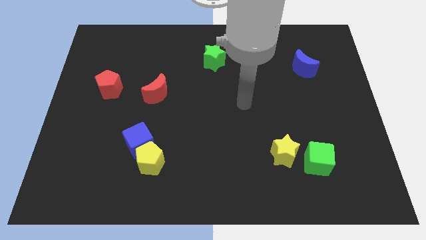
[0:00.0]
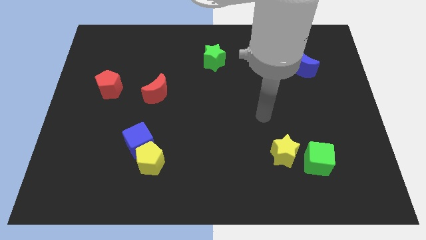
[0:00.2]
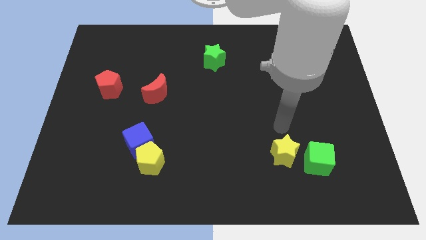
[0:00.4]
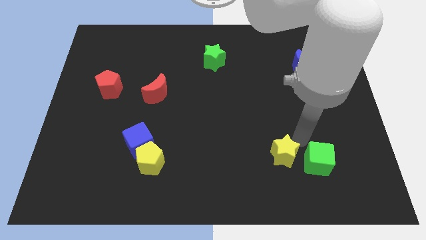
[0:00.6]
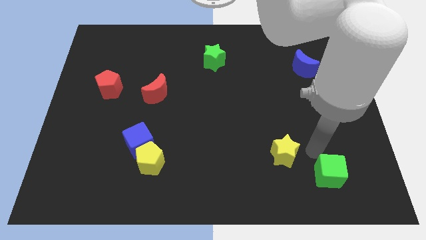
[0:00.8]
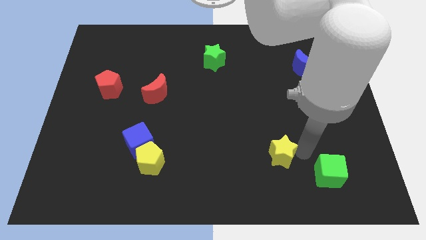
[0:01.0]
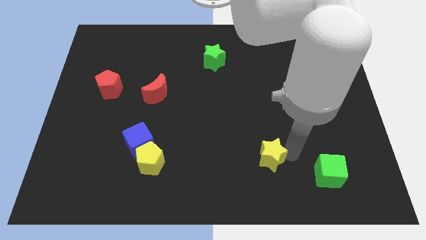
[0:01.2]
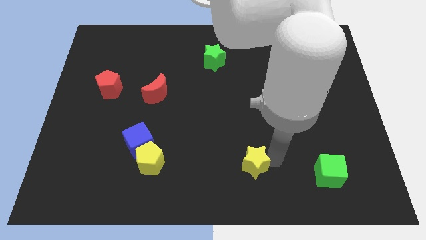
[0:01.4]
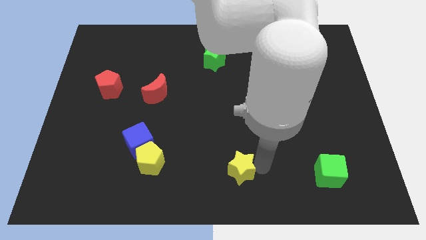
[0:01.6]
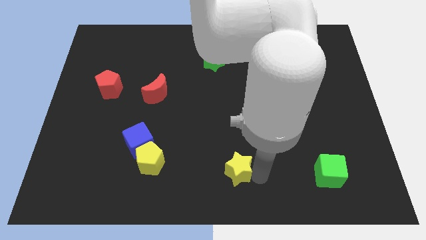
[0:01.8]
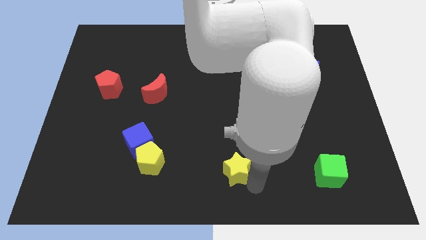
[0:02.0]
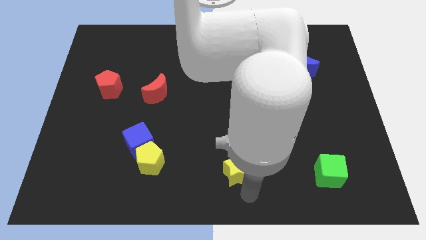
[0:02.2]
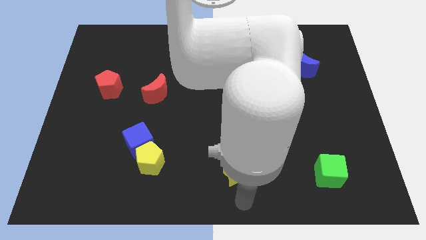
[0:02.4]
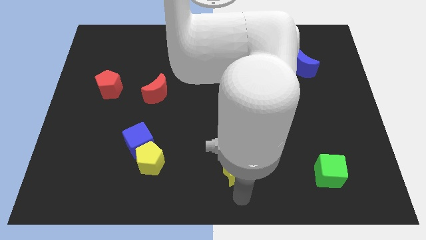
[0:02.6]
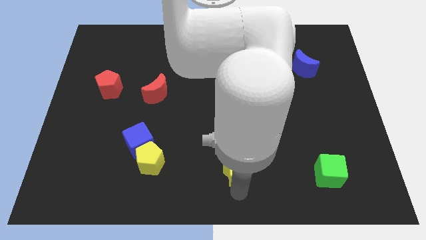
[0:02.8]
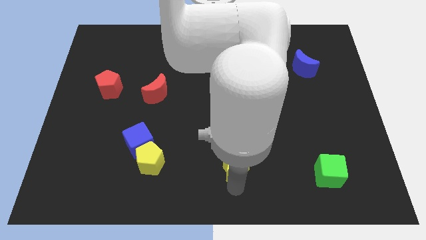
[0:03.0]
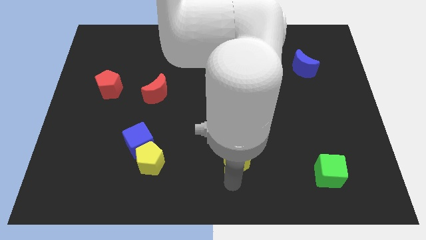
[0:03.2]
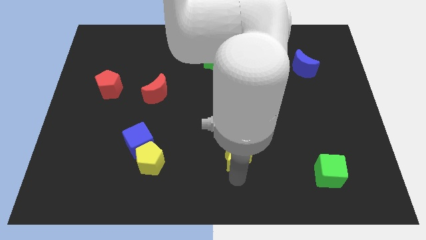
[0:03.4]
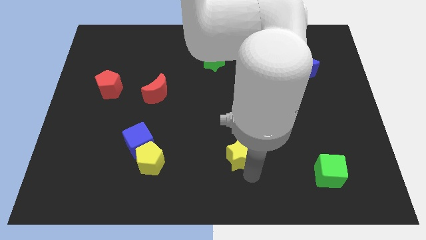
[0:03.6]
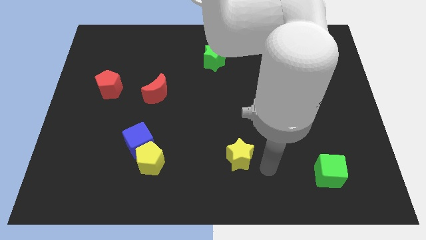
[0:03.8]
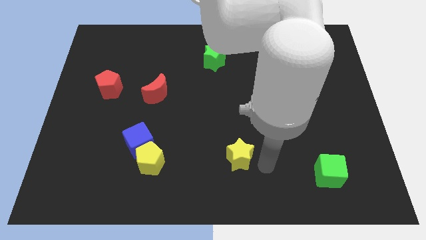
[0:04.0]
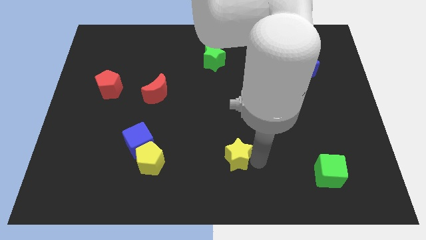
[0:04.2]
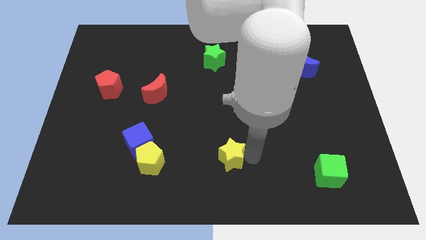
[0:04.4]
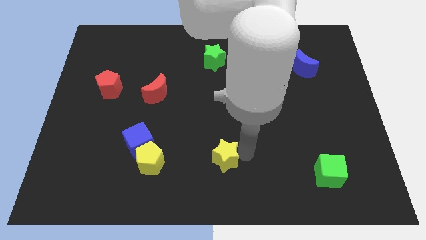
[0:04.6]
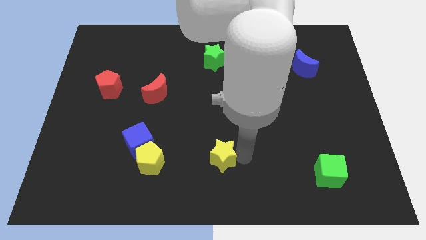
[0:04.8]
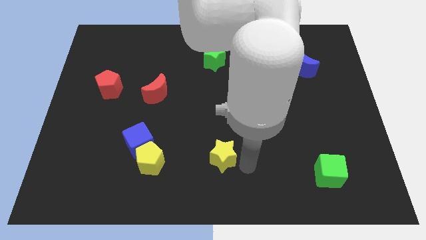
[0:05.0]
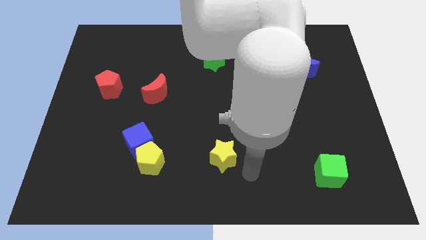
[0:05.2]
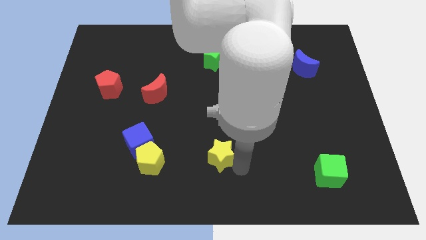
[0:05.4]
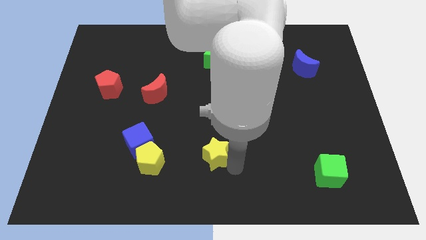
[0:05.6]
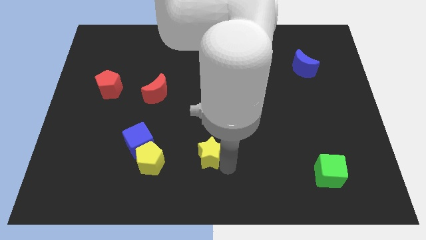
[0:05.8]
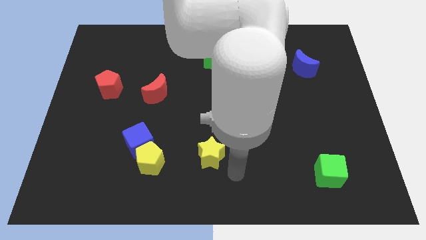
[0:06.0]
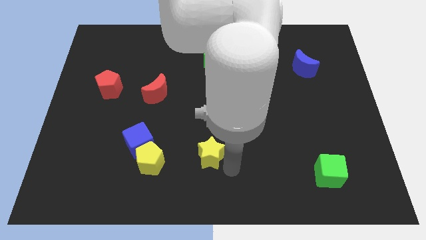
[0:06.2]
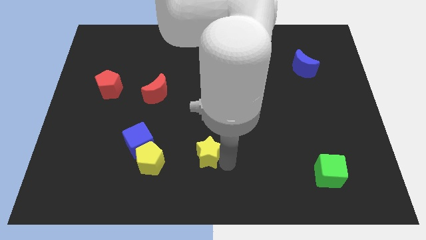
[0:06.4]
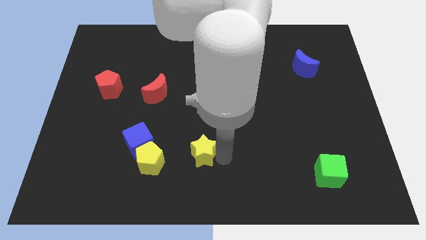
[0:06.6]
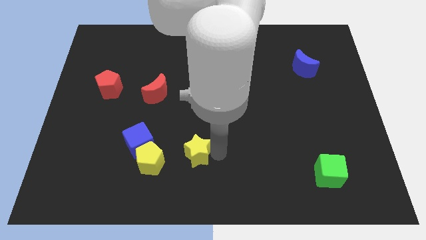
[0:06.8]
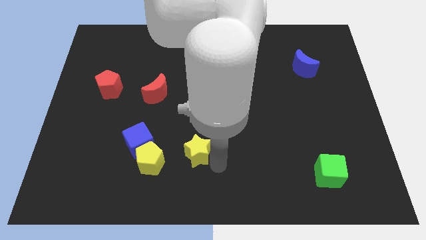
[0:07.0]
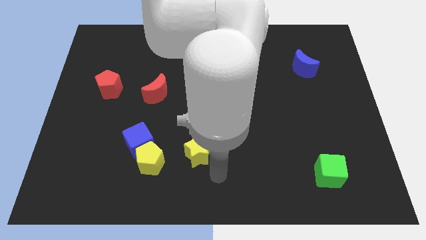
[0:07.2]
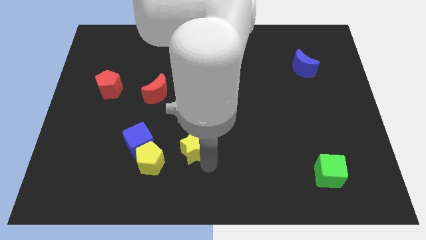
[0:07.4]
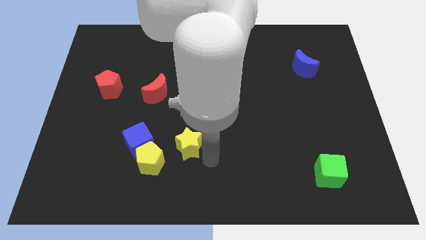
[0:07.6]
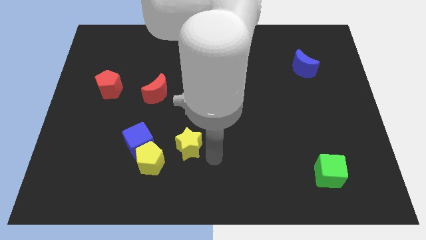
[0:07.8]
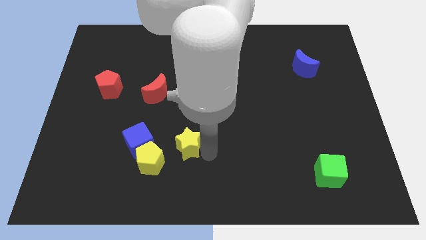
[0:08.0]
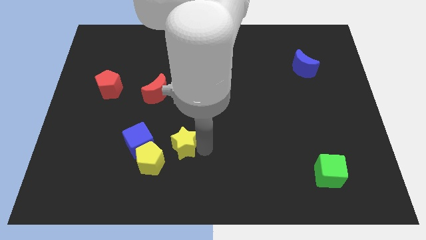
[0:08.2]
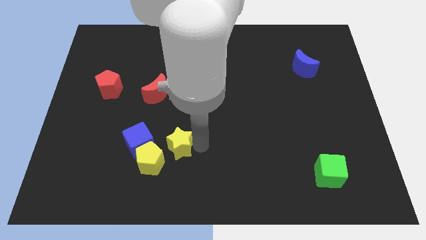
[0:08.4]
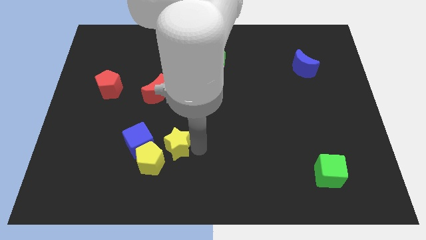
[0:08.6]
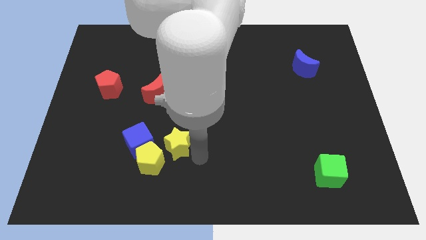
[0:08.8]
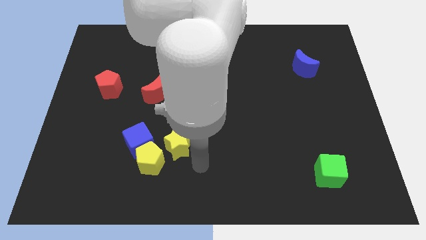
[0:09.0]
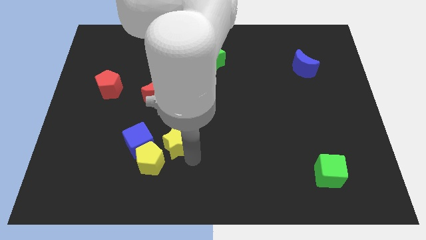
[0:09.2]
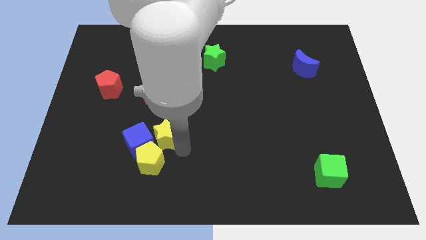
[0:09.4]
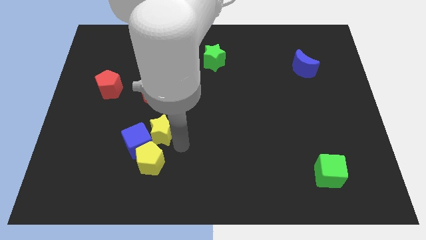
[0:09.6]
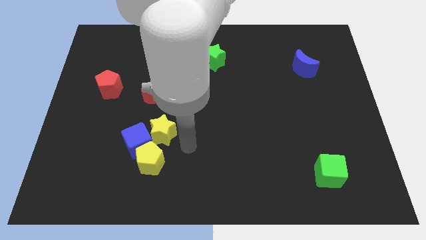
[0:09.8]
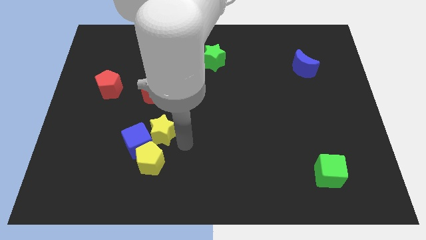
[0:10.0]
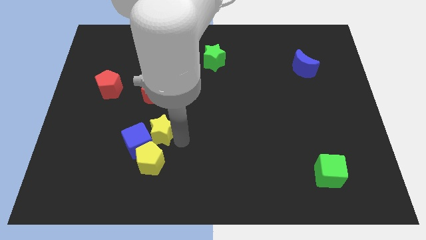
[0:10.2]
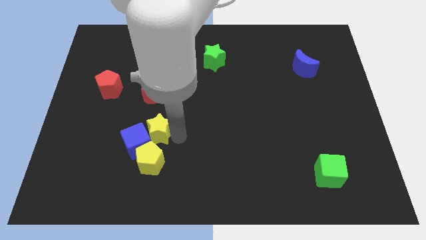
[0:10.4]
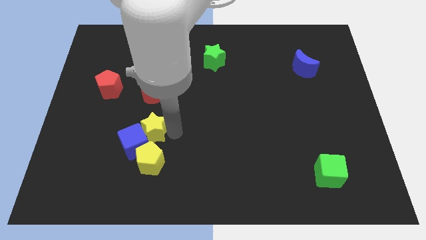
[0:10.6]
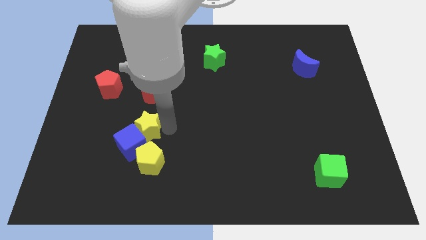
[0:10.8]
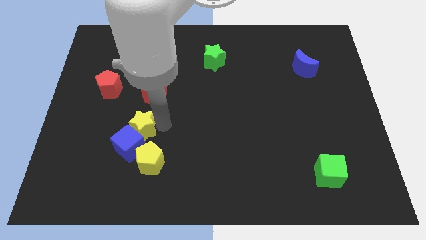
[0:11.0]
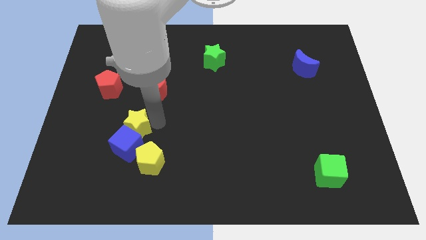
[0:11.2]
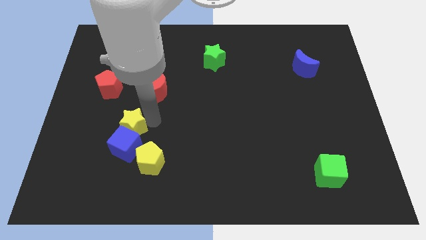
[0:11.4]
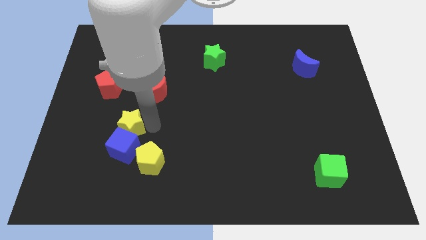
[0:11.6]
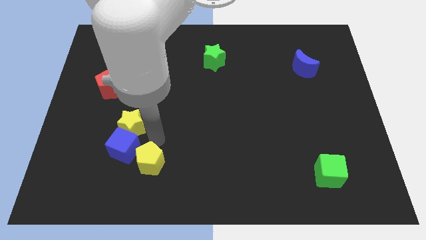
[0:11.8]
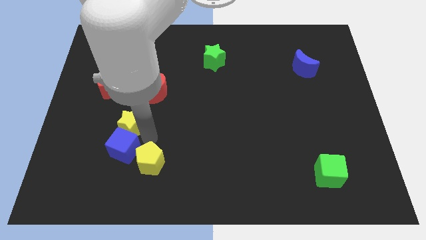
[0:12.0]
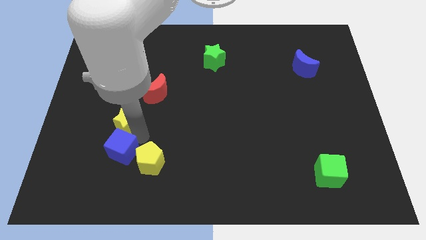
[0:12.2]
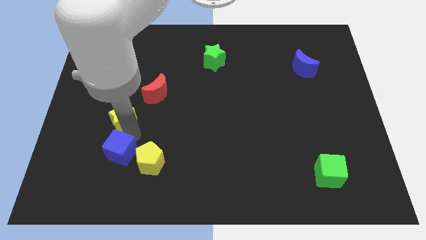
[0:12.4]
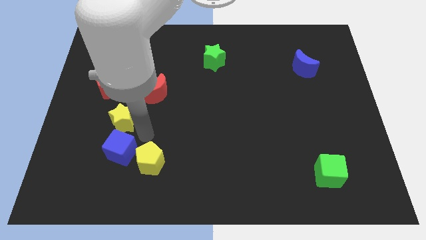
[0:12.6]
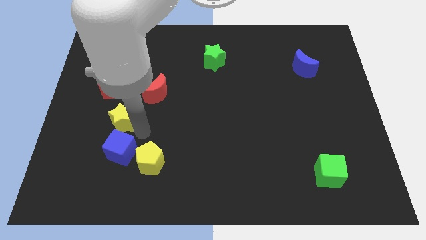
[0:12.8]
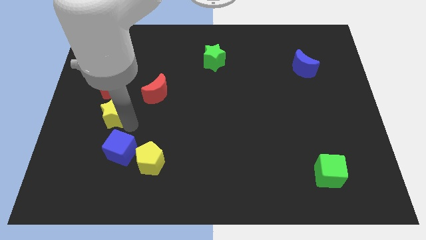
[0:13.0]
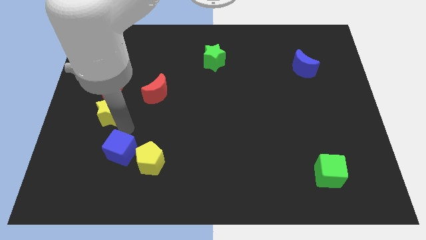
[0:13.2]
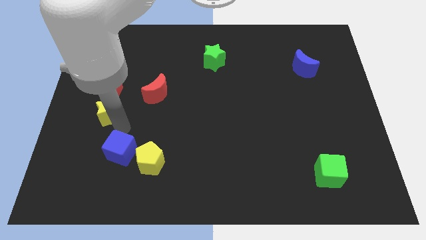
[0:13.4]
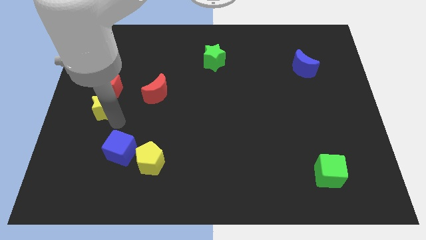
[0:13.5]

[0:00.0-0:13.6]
put the yellow star to the left side of the red moon
